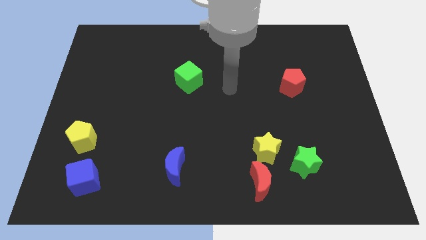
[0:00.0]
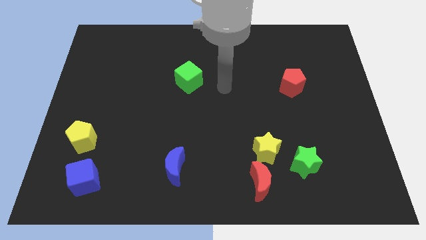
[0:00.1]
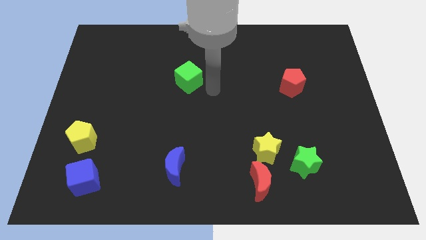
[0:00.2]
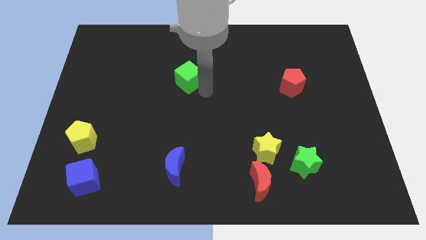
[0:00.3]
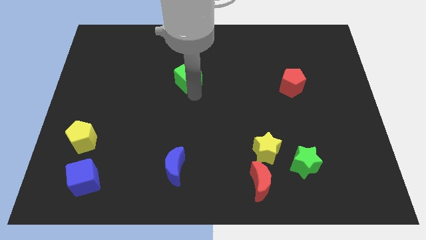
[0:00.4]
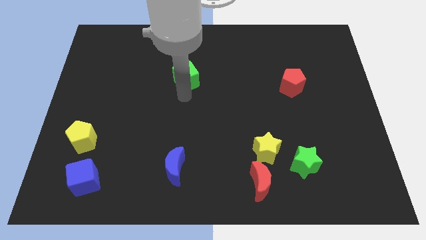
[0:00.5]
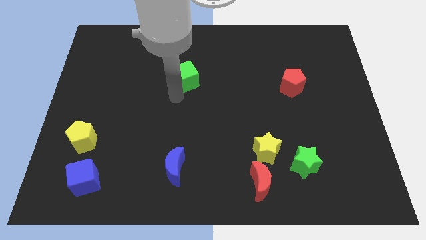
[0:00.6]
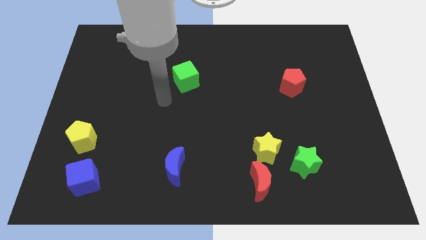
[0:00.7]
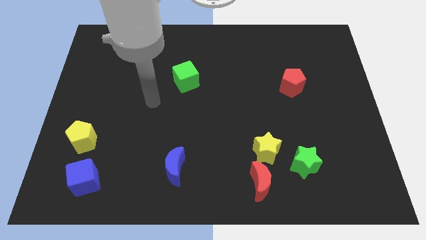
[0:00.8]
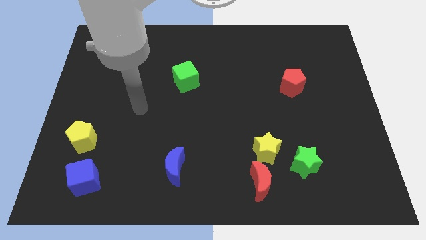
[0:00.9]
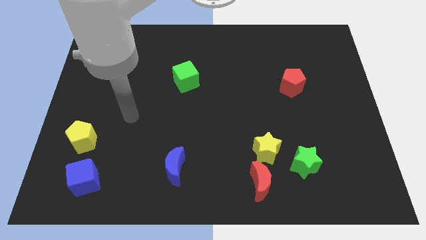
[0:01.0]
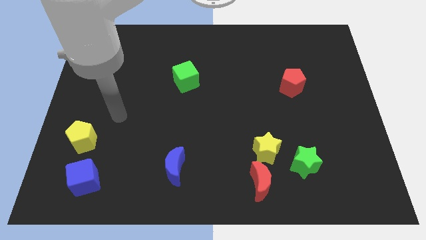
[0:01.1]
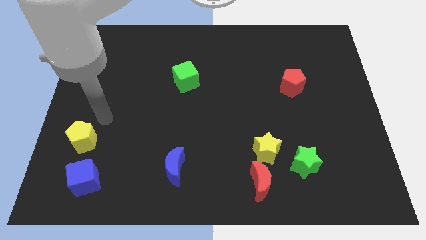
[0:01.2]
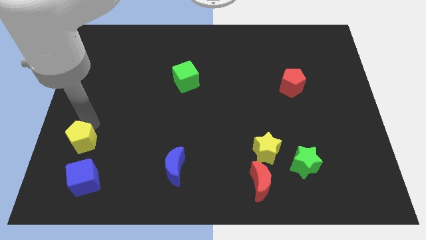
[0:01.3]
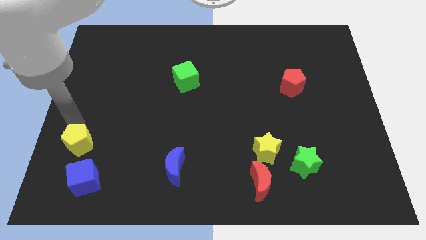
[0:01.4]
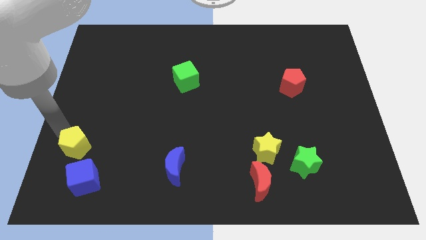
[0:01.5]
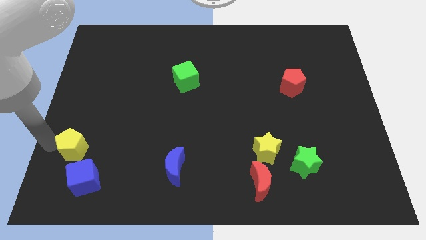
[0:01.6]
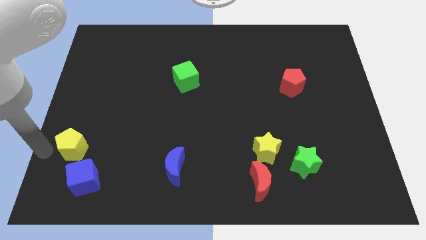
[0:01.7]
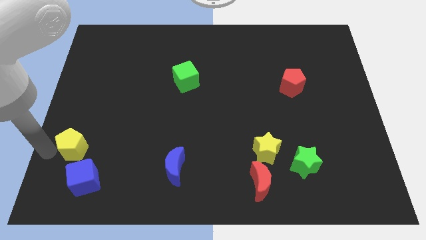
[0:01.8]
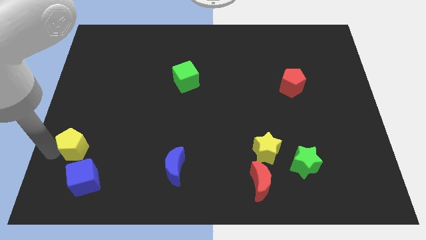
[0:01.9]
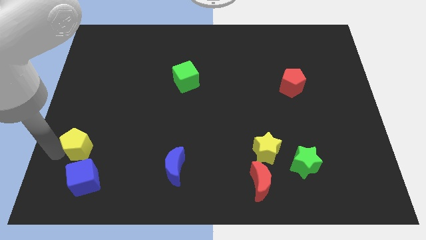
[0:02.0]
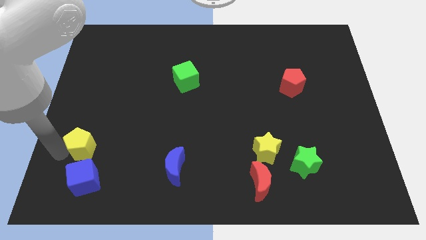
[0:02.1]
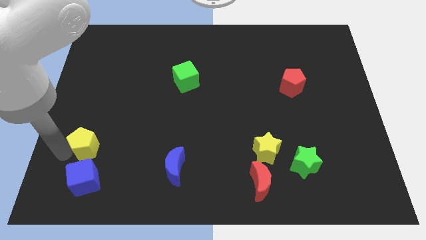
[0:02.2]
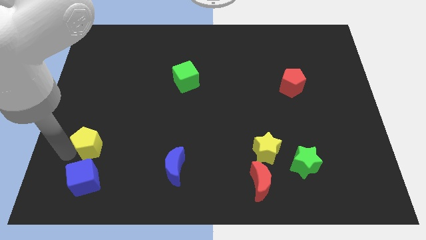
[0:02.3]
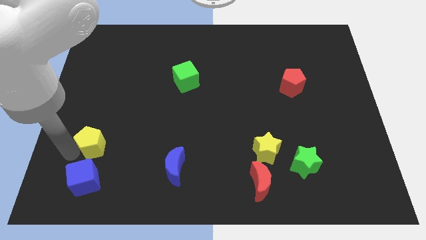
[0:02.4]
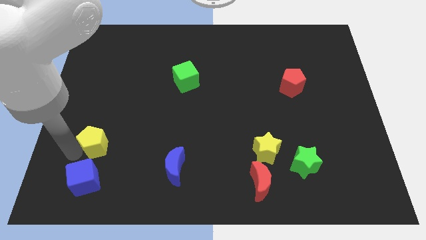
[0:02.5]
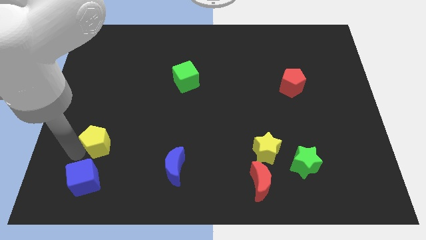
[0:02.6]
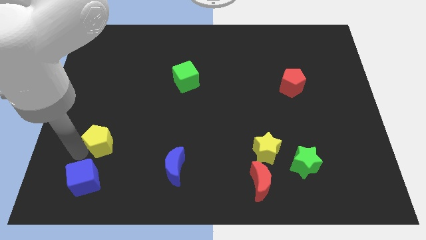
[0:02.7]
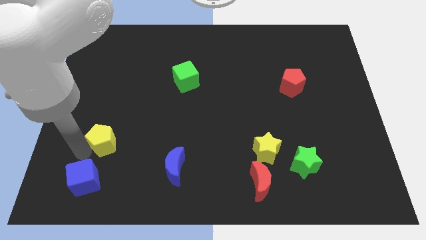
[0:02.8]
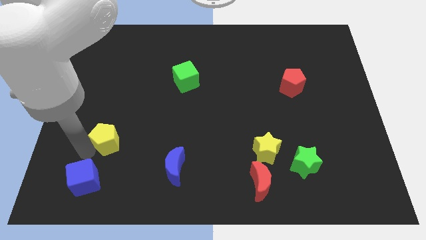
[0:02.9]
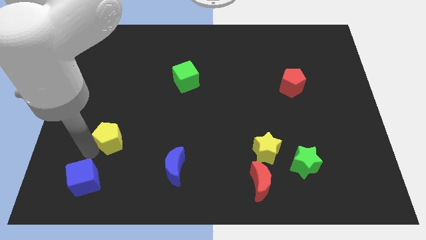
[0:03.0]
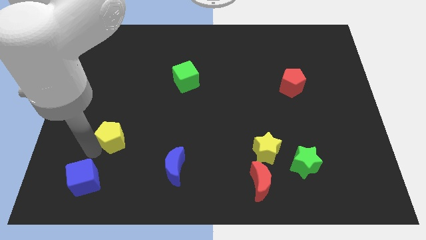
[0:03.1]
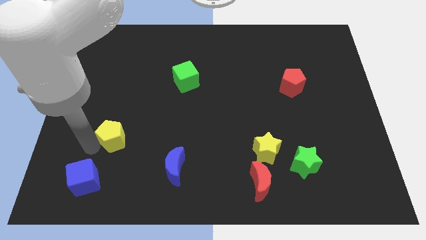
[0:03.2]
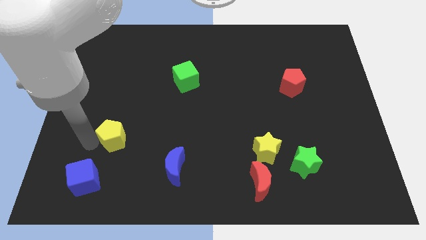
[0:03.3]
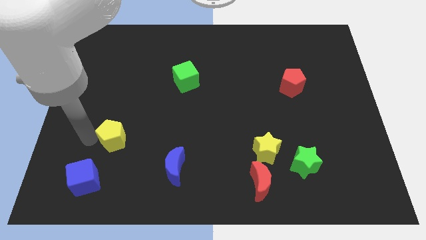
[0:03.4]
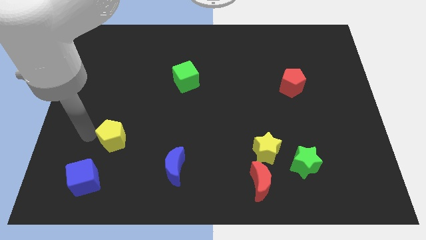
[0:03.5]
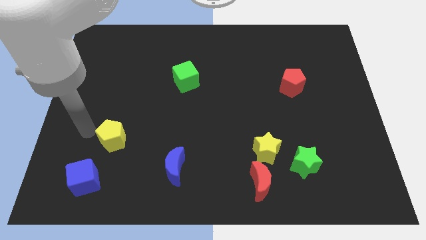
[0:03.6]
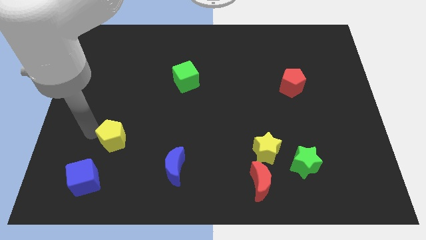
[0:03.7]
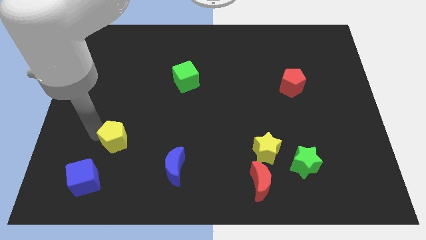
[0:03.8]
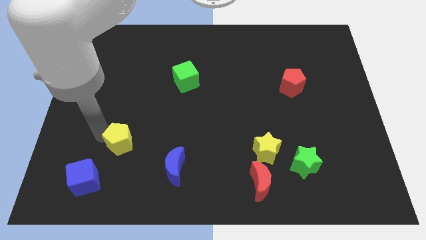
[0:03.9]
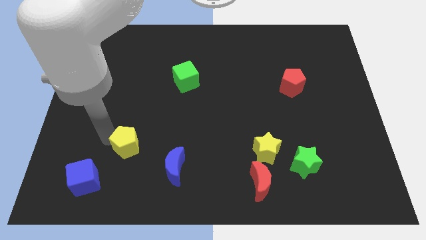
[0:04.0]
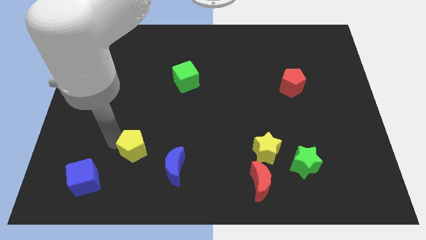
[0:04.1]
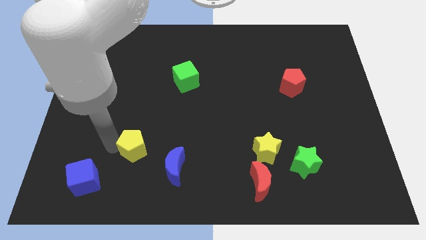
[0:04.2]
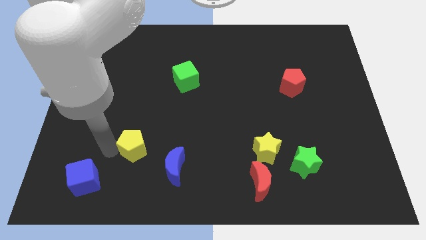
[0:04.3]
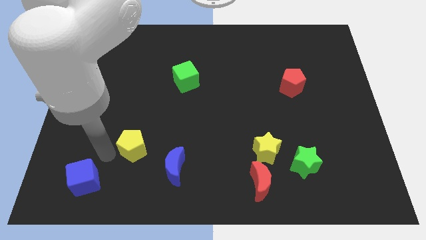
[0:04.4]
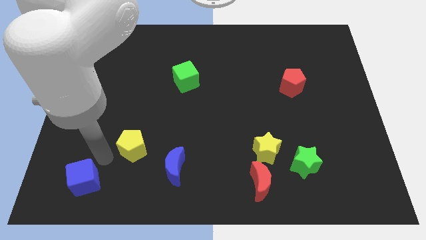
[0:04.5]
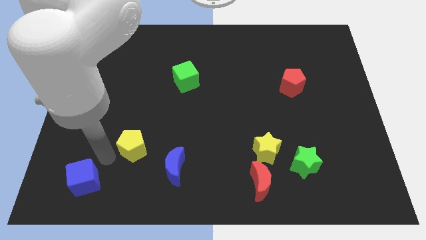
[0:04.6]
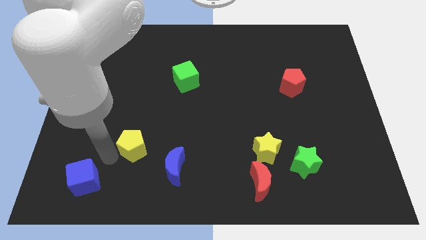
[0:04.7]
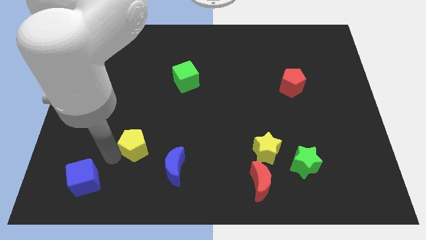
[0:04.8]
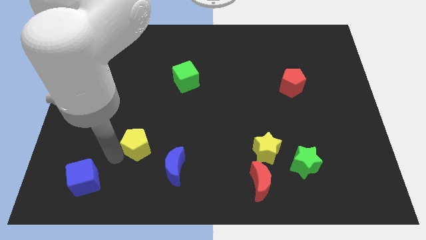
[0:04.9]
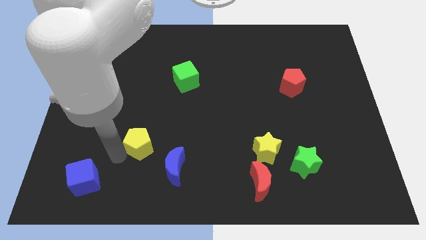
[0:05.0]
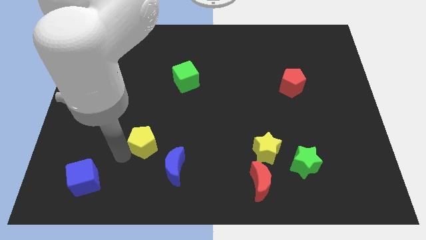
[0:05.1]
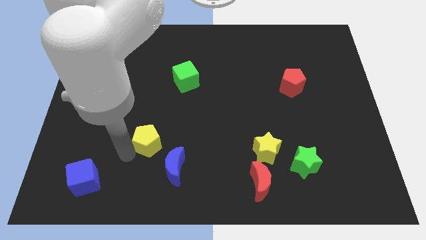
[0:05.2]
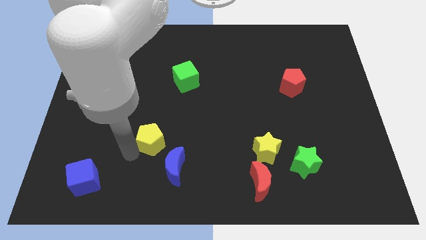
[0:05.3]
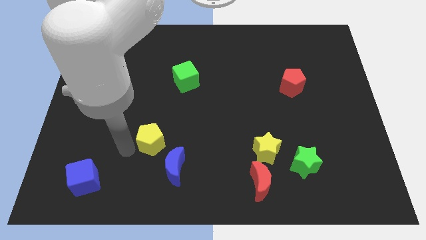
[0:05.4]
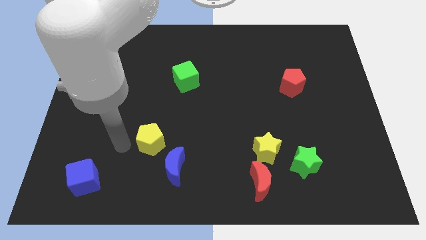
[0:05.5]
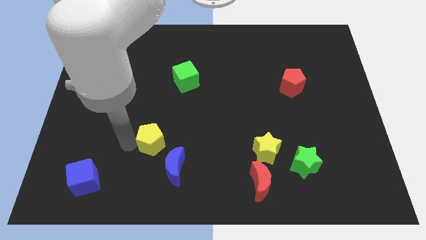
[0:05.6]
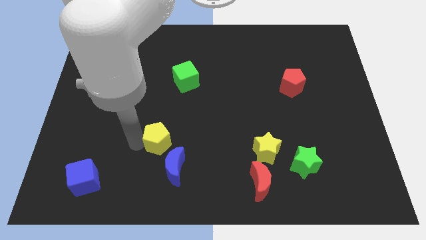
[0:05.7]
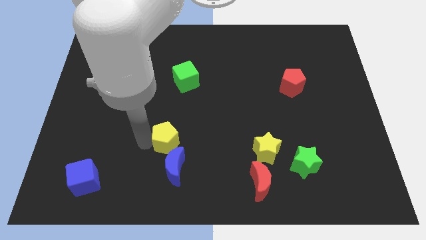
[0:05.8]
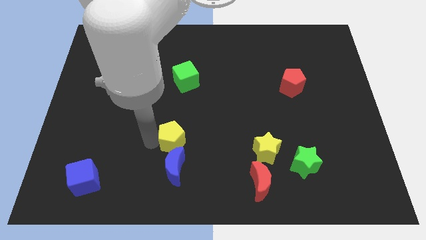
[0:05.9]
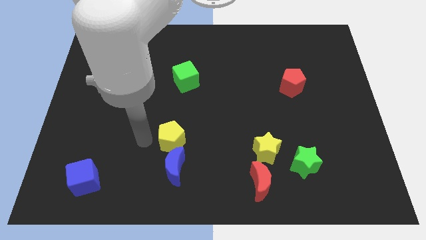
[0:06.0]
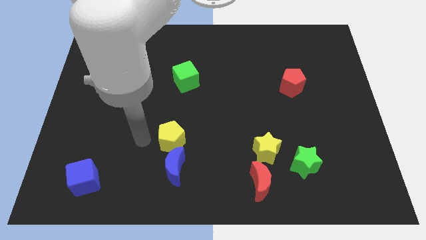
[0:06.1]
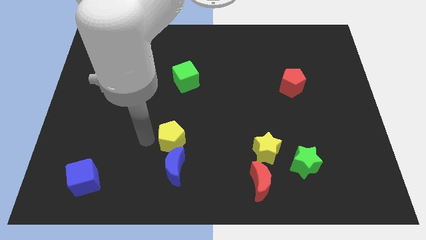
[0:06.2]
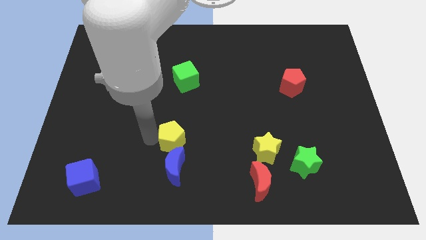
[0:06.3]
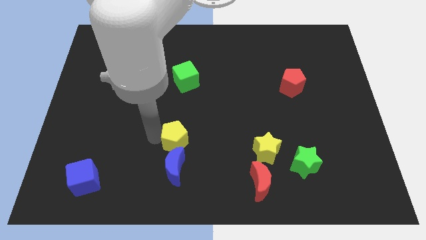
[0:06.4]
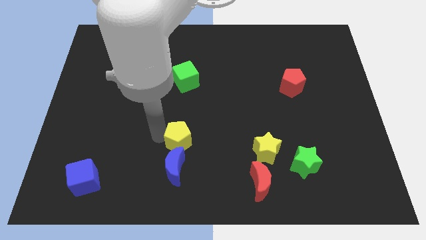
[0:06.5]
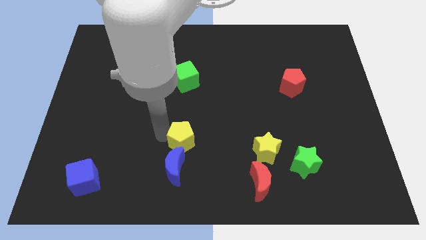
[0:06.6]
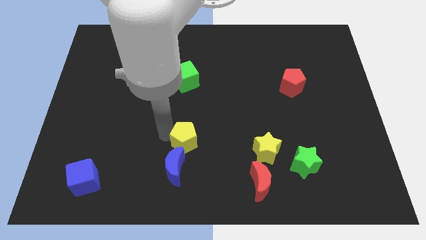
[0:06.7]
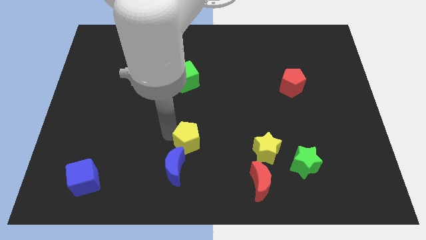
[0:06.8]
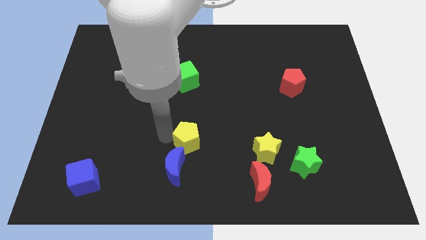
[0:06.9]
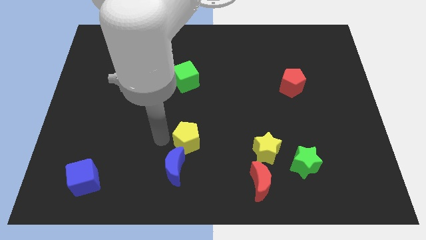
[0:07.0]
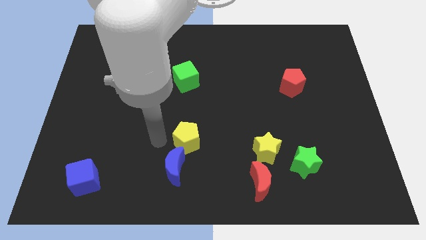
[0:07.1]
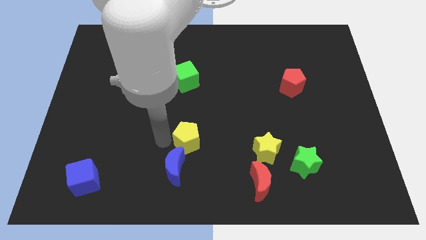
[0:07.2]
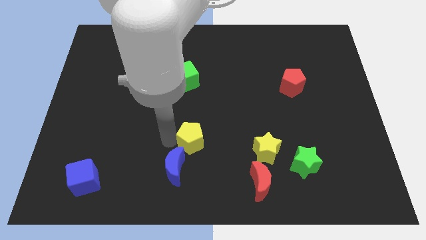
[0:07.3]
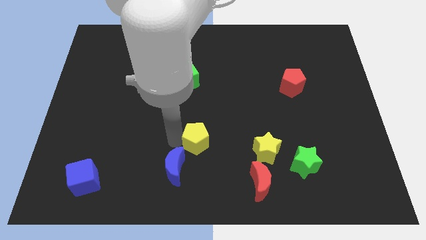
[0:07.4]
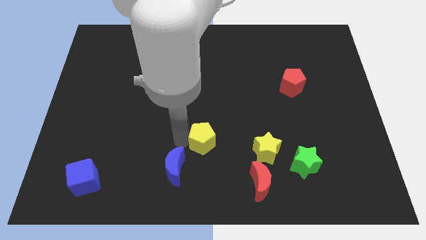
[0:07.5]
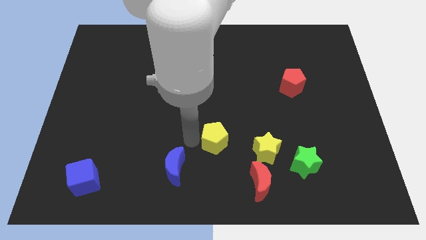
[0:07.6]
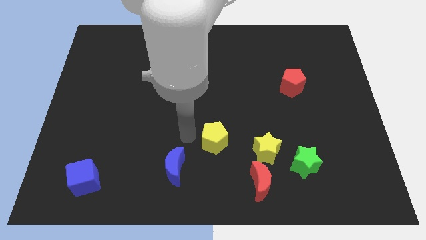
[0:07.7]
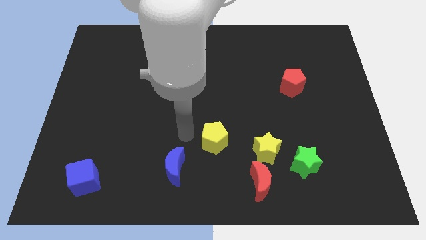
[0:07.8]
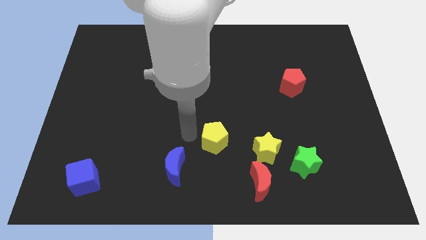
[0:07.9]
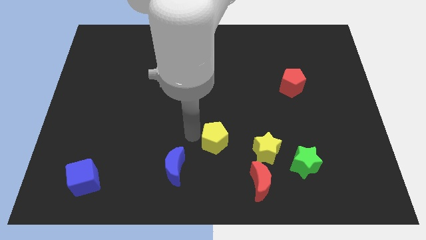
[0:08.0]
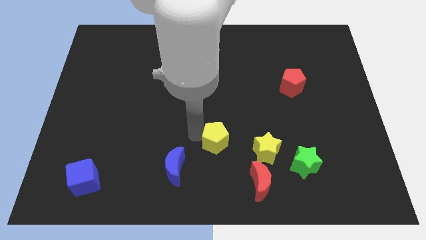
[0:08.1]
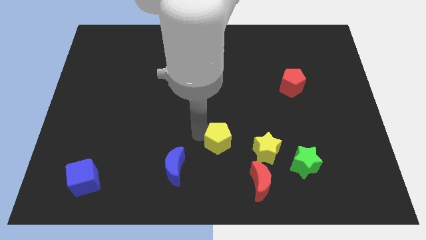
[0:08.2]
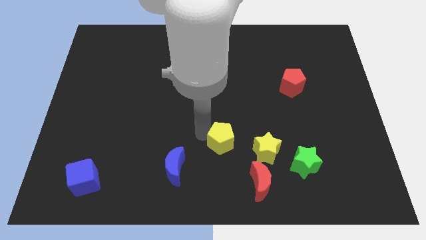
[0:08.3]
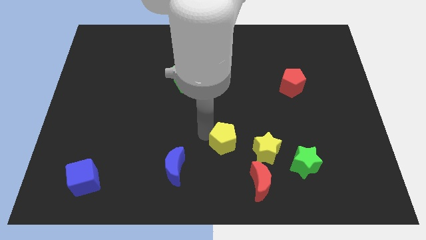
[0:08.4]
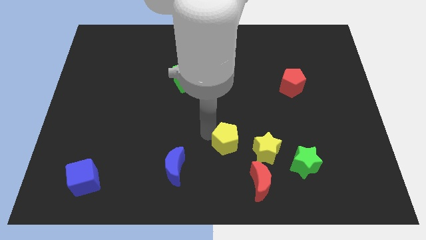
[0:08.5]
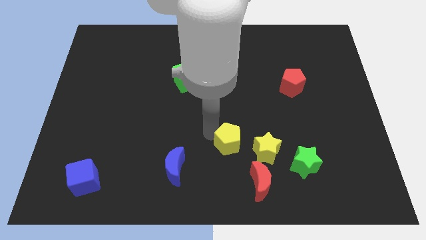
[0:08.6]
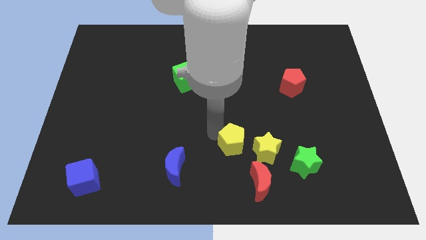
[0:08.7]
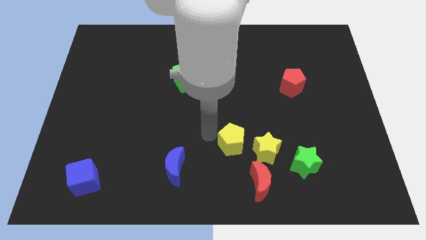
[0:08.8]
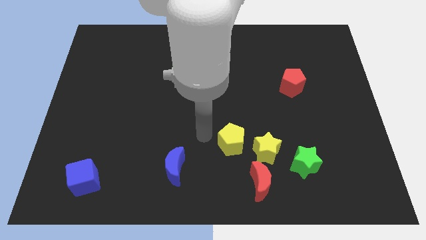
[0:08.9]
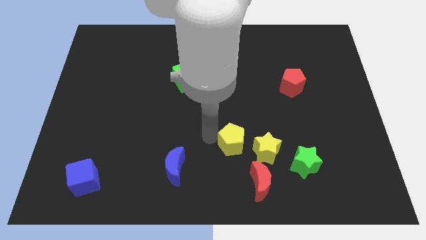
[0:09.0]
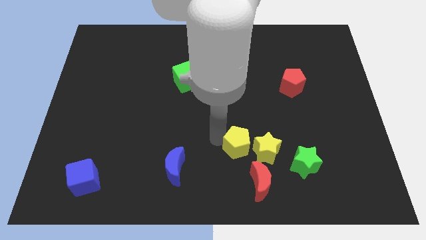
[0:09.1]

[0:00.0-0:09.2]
slide the yellow pentagon next to the yellow star
